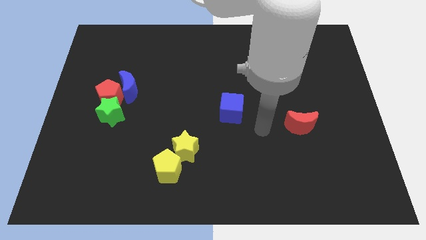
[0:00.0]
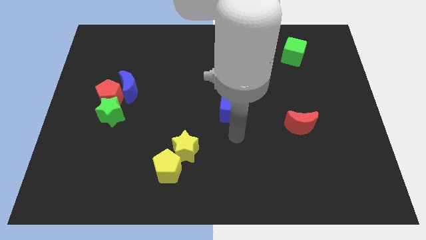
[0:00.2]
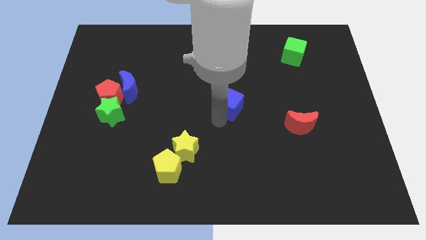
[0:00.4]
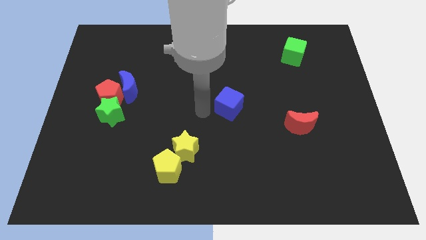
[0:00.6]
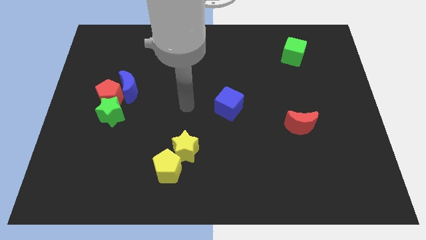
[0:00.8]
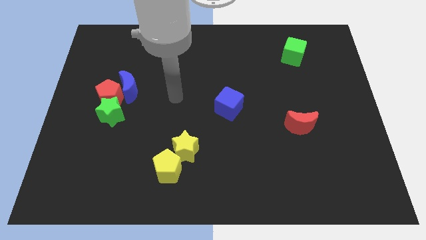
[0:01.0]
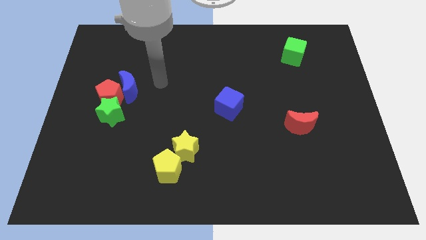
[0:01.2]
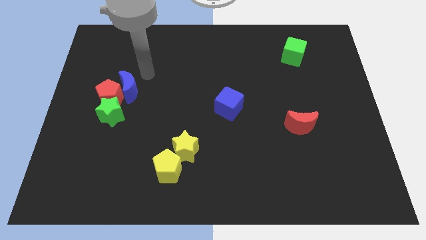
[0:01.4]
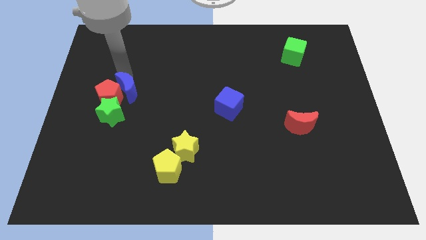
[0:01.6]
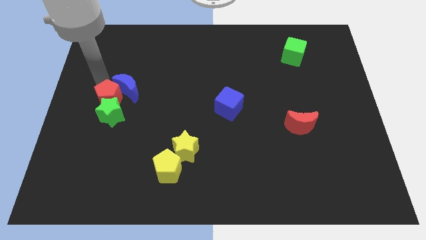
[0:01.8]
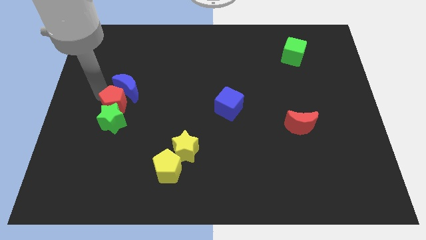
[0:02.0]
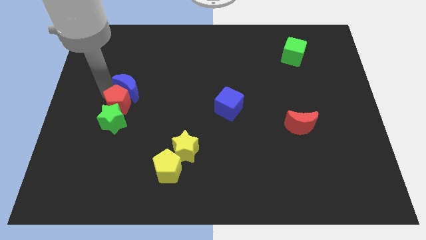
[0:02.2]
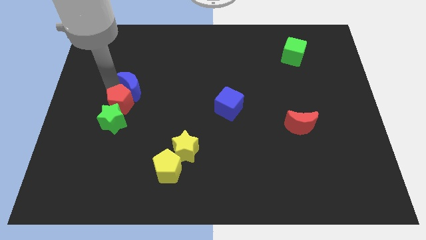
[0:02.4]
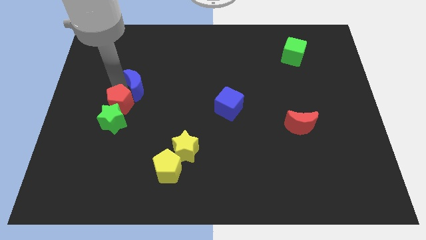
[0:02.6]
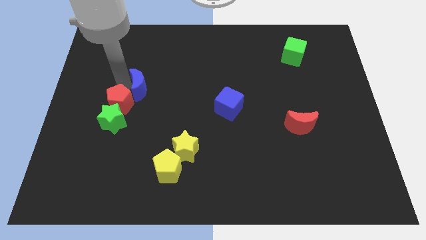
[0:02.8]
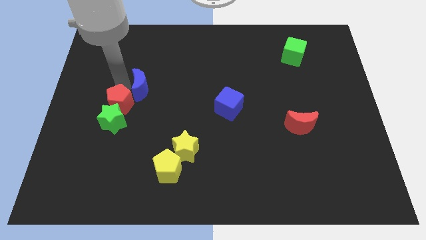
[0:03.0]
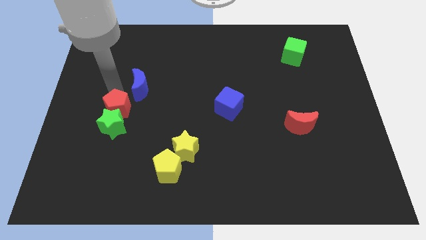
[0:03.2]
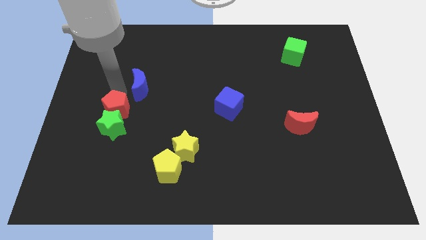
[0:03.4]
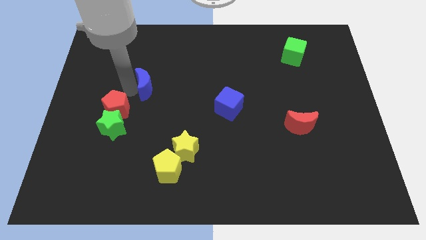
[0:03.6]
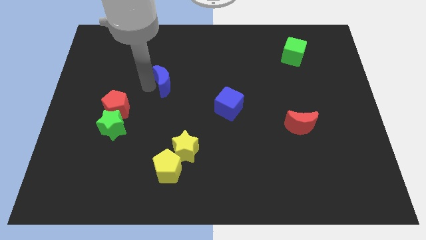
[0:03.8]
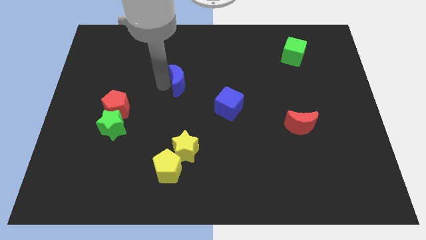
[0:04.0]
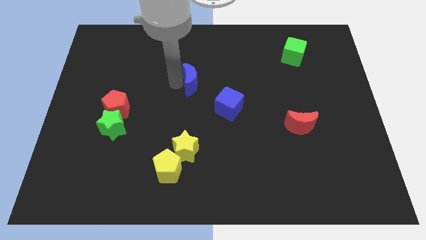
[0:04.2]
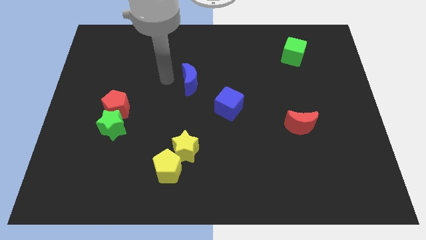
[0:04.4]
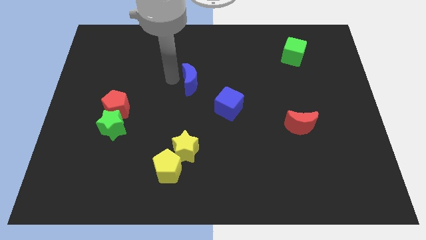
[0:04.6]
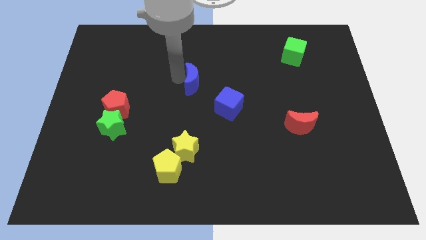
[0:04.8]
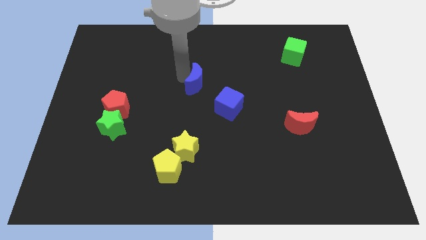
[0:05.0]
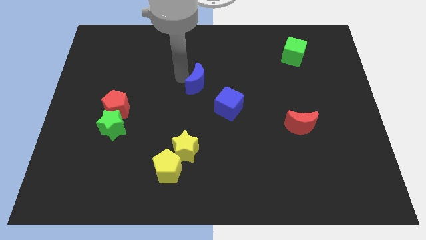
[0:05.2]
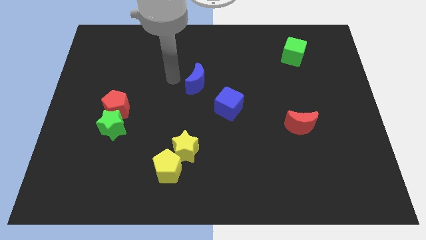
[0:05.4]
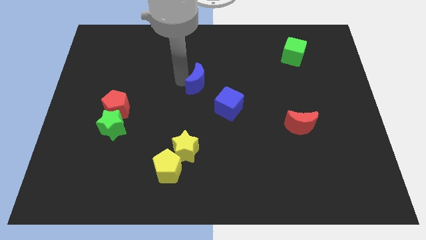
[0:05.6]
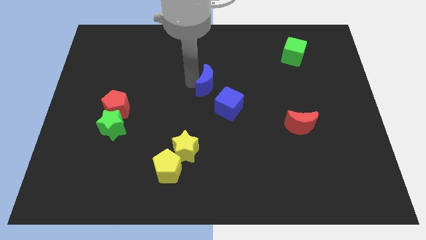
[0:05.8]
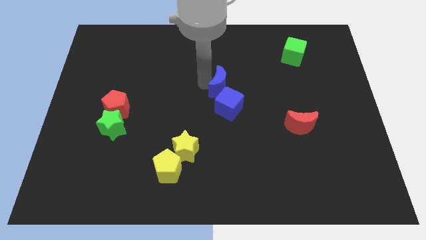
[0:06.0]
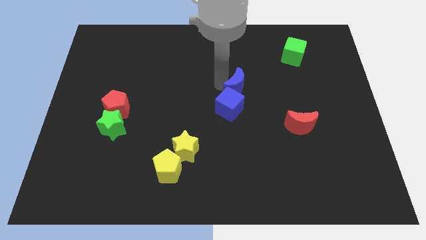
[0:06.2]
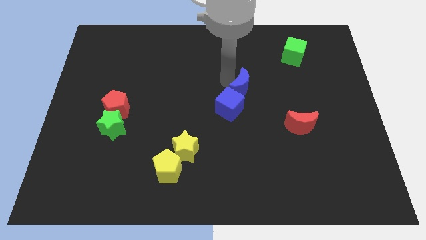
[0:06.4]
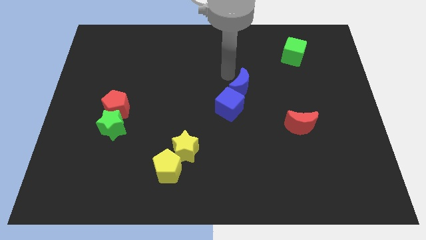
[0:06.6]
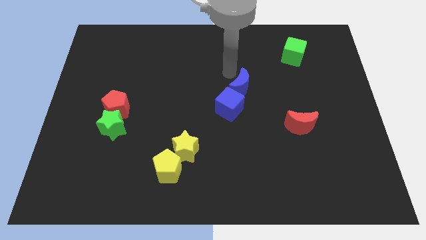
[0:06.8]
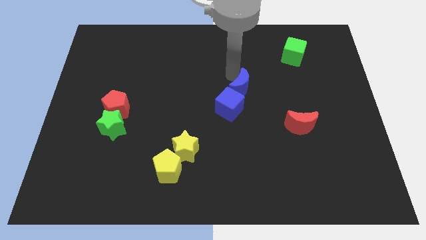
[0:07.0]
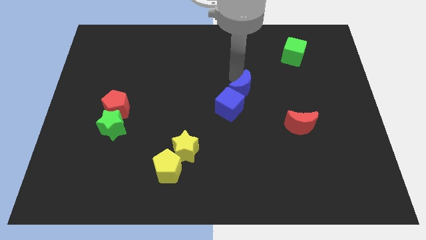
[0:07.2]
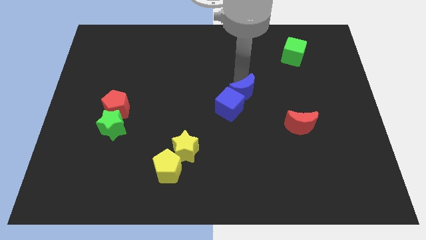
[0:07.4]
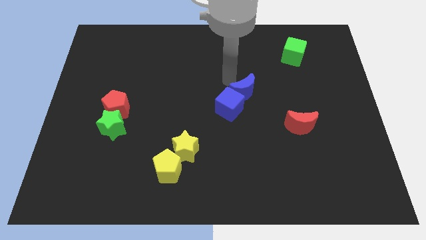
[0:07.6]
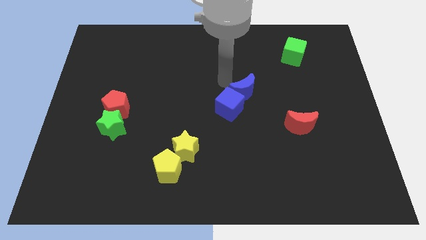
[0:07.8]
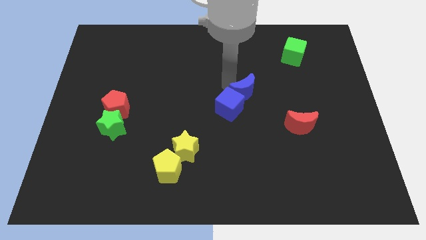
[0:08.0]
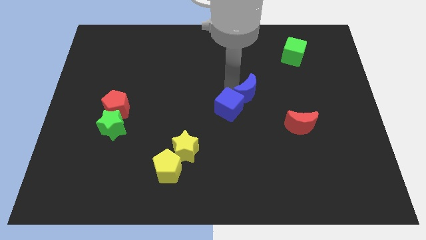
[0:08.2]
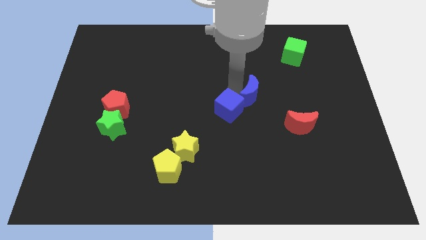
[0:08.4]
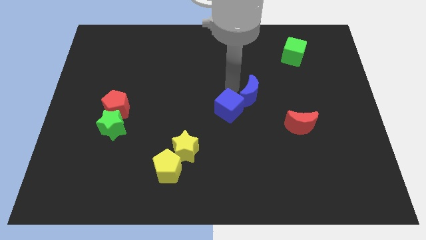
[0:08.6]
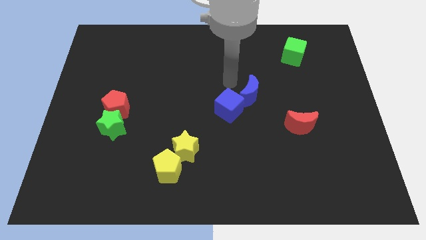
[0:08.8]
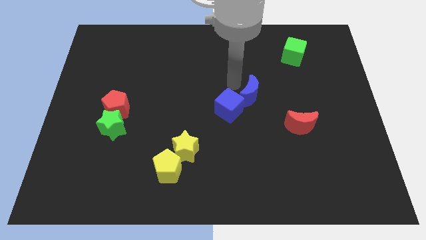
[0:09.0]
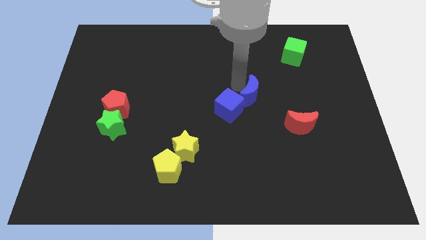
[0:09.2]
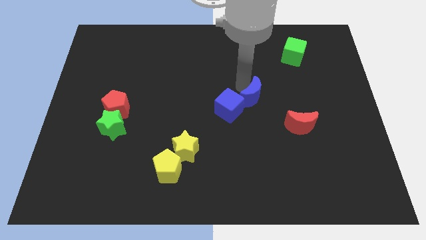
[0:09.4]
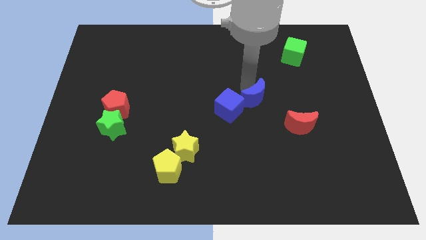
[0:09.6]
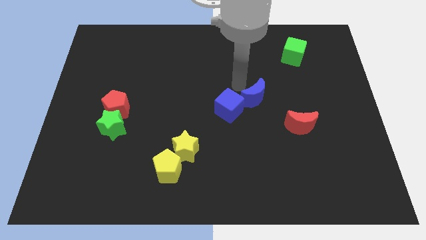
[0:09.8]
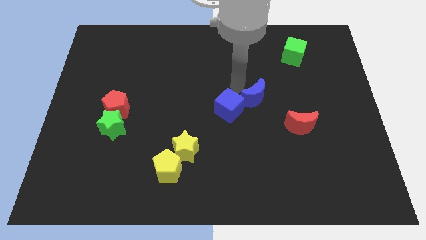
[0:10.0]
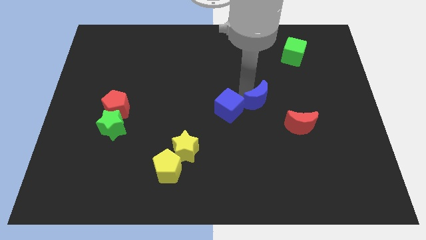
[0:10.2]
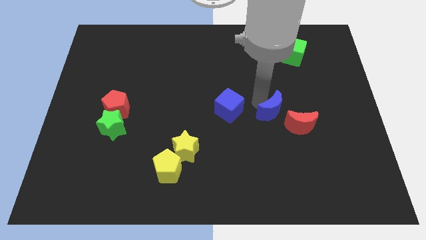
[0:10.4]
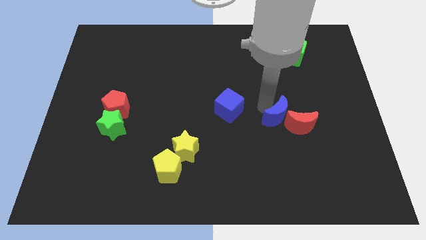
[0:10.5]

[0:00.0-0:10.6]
push the blue moon towards the red moon

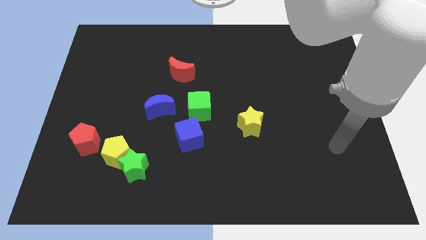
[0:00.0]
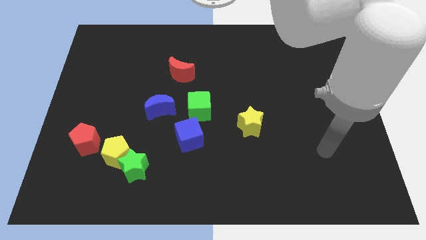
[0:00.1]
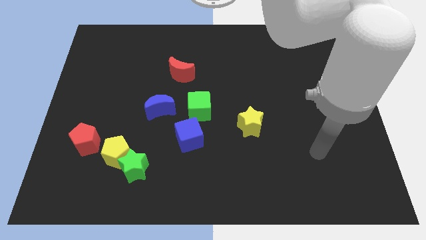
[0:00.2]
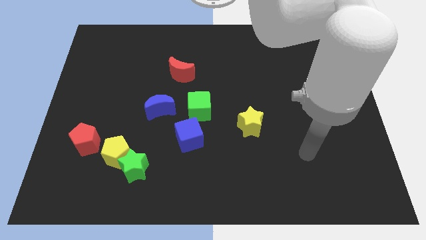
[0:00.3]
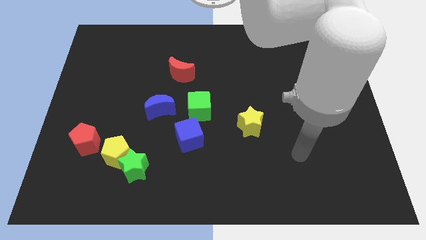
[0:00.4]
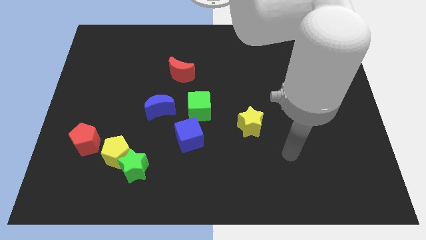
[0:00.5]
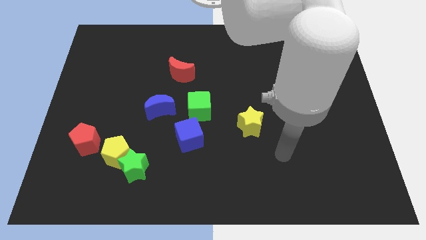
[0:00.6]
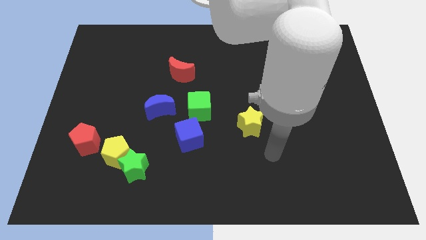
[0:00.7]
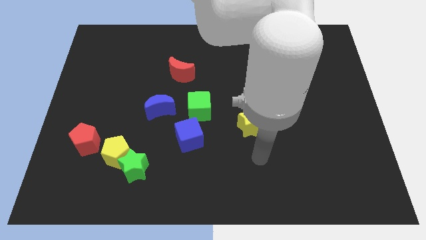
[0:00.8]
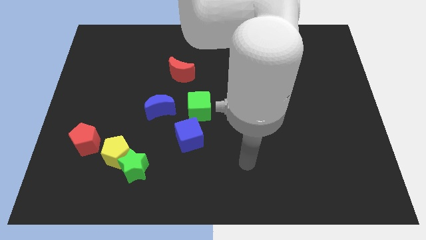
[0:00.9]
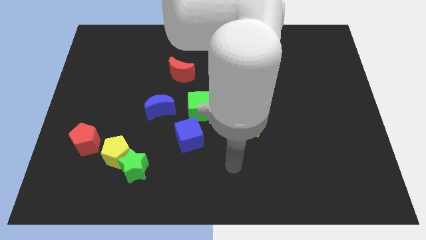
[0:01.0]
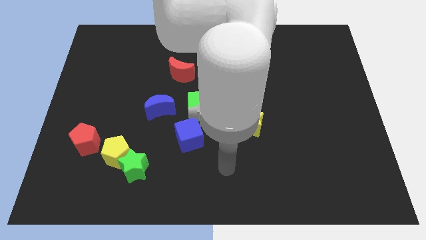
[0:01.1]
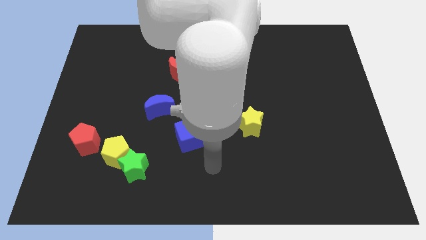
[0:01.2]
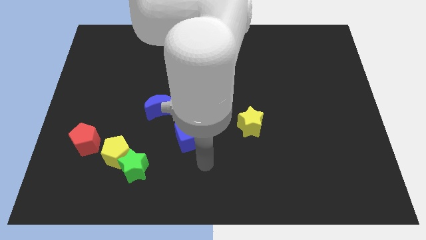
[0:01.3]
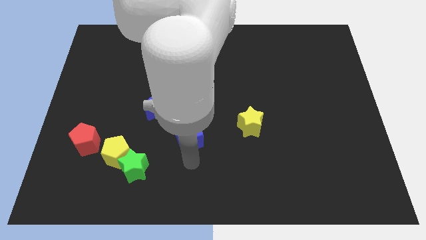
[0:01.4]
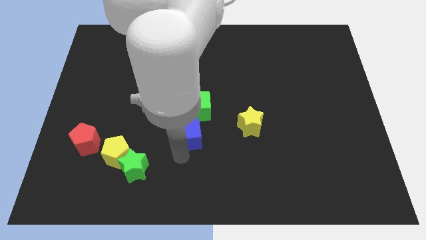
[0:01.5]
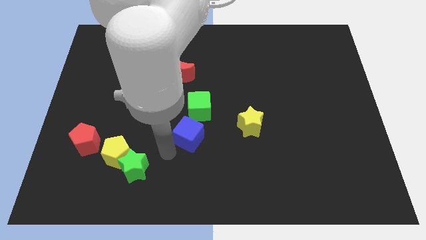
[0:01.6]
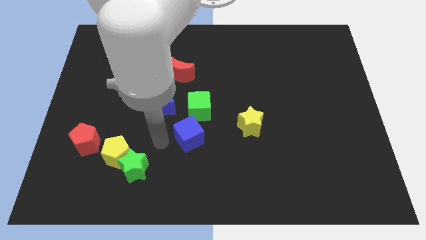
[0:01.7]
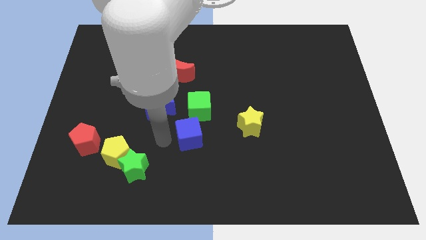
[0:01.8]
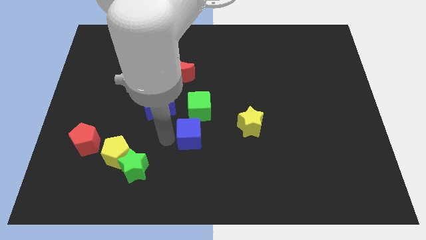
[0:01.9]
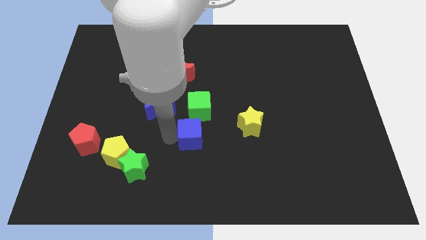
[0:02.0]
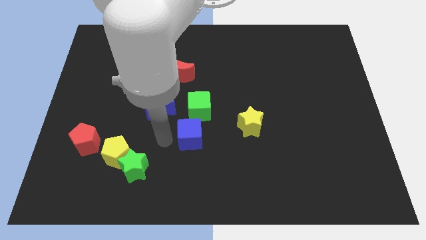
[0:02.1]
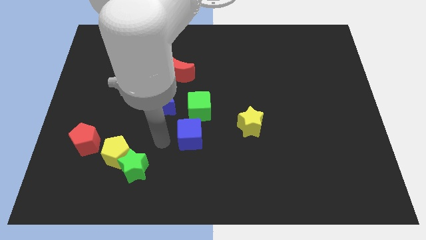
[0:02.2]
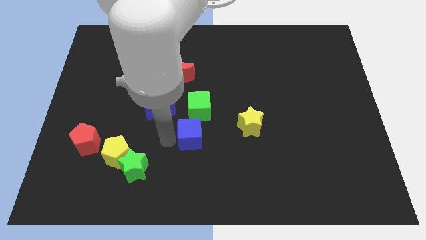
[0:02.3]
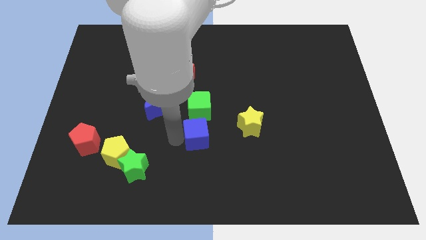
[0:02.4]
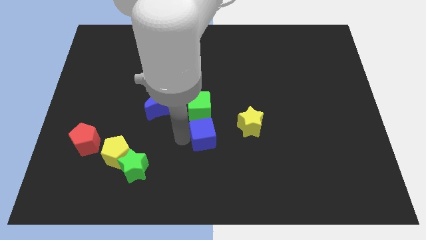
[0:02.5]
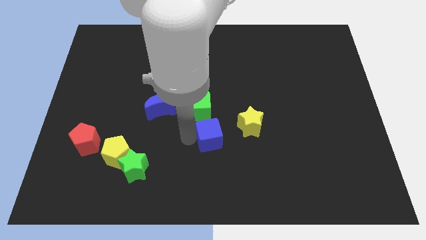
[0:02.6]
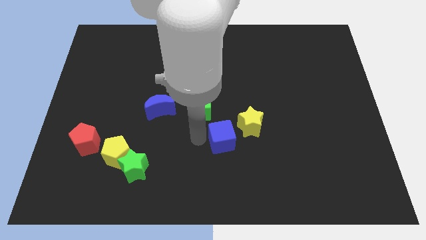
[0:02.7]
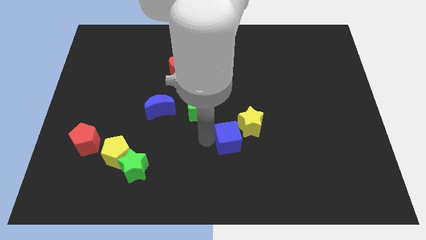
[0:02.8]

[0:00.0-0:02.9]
slide the blue cube to the yellow star
